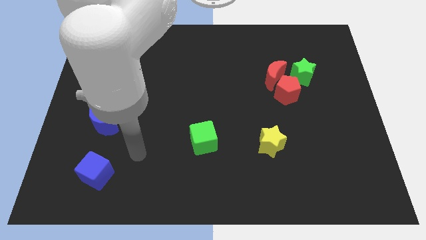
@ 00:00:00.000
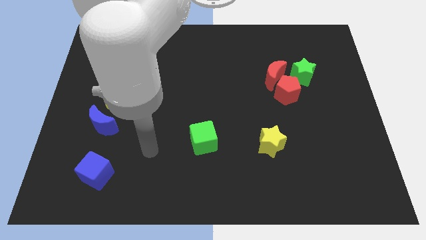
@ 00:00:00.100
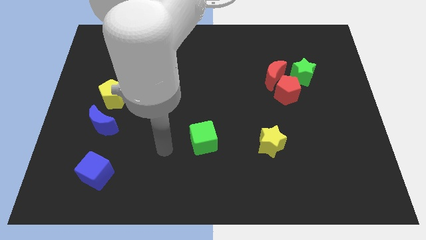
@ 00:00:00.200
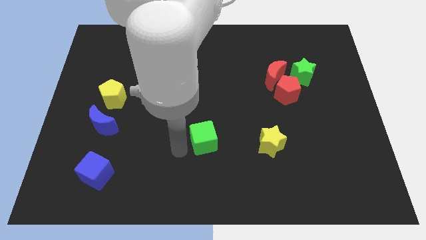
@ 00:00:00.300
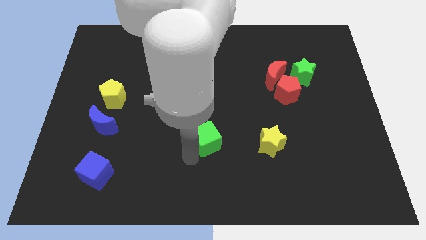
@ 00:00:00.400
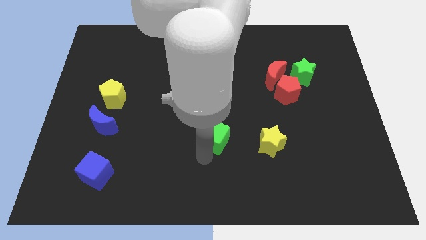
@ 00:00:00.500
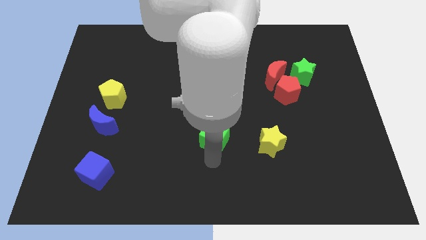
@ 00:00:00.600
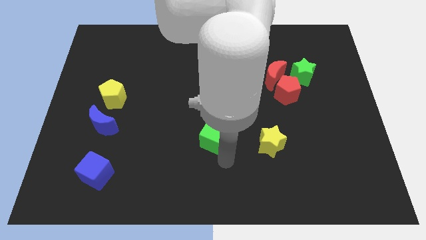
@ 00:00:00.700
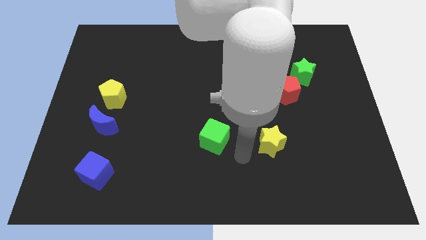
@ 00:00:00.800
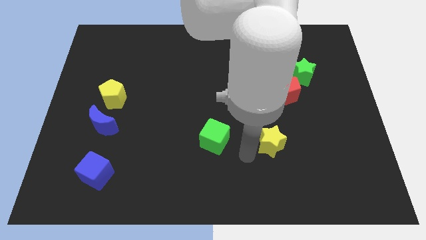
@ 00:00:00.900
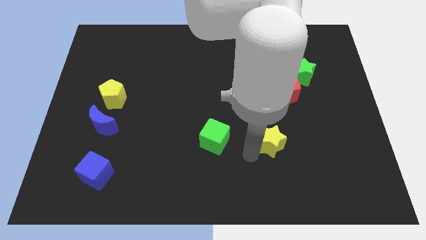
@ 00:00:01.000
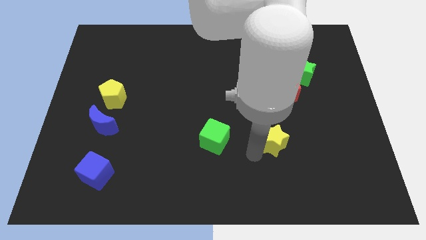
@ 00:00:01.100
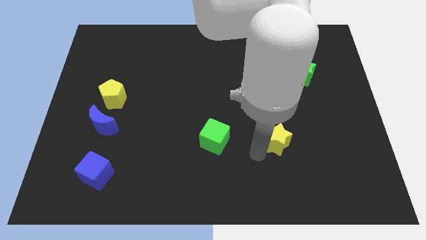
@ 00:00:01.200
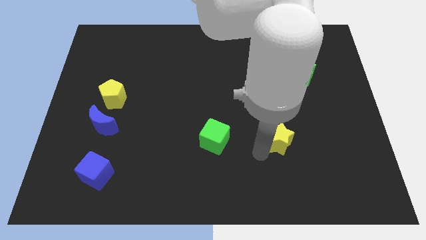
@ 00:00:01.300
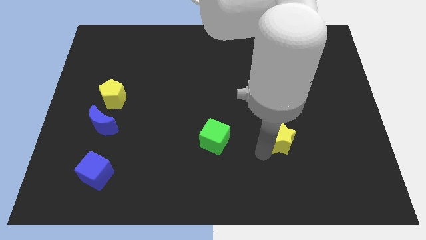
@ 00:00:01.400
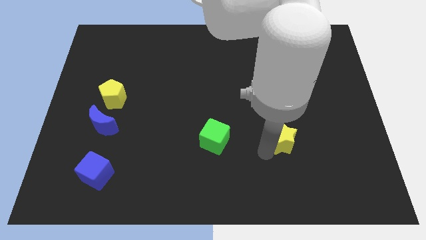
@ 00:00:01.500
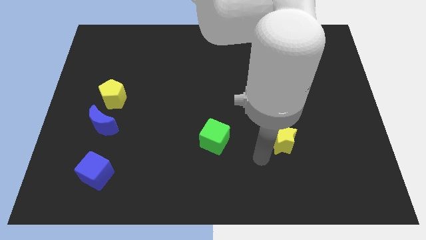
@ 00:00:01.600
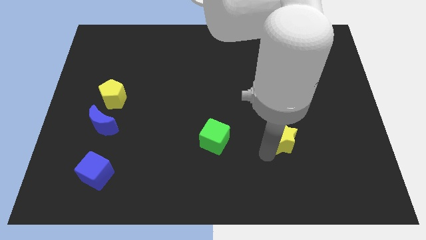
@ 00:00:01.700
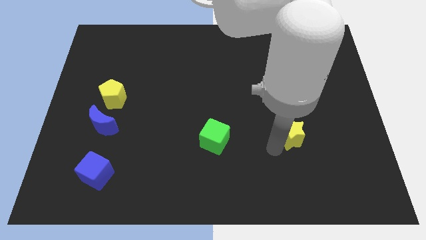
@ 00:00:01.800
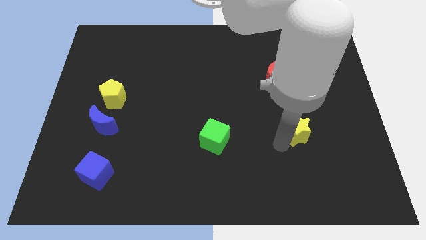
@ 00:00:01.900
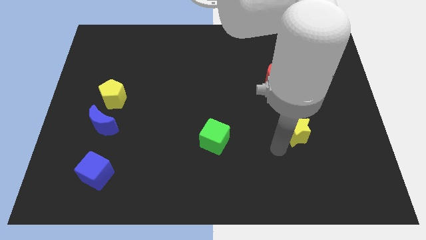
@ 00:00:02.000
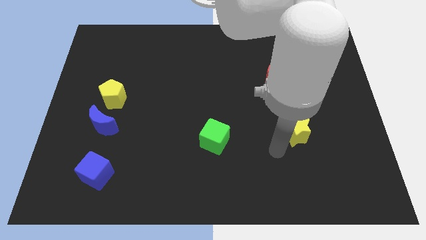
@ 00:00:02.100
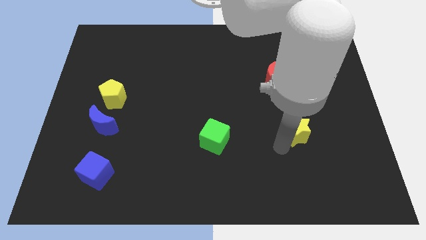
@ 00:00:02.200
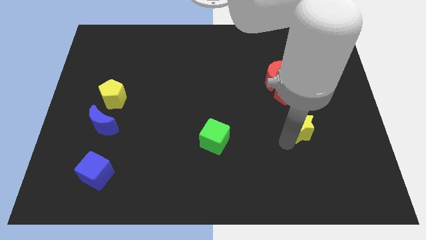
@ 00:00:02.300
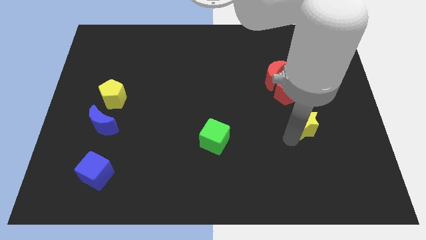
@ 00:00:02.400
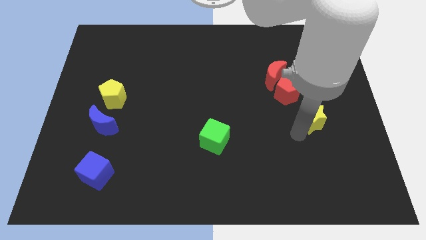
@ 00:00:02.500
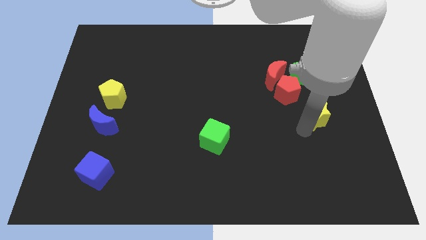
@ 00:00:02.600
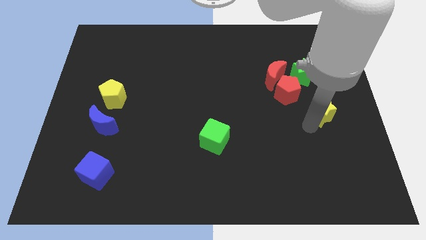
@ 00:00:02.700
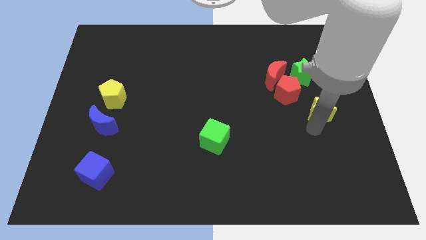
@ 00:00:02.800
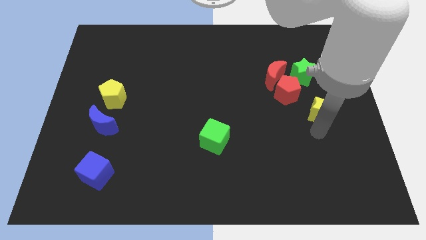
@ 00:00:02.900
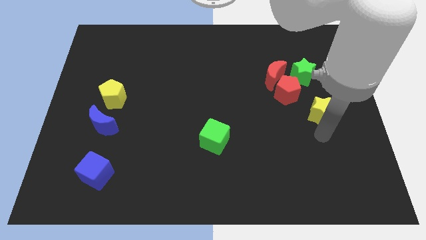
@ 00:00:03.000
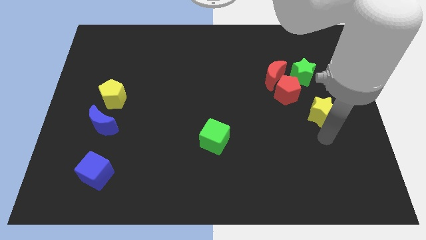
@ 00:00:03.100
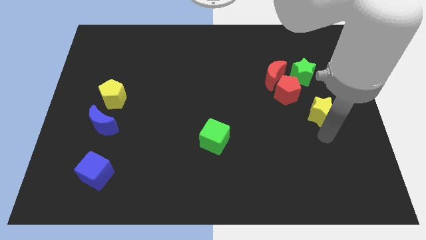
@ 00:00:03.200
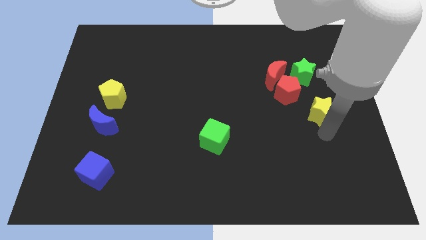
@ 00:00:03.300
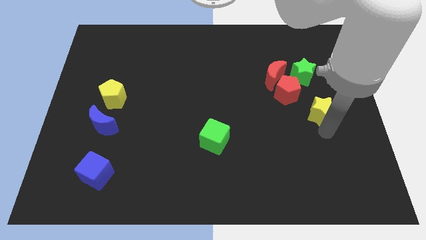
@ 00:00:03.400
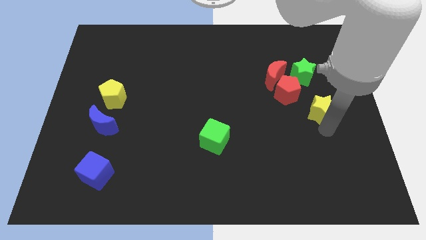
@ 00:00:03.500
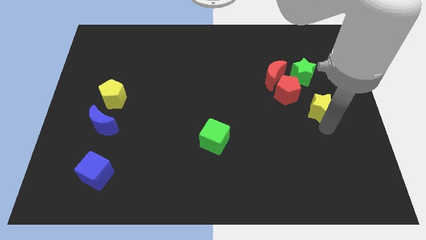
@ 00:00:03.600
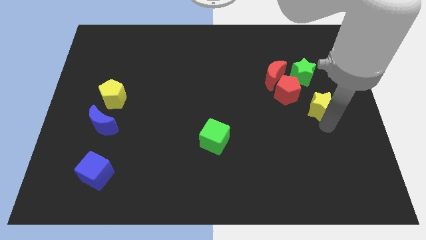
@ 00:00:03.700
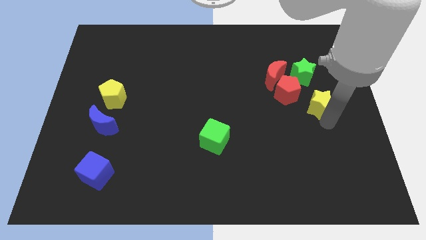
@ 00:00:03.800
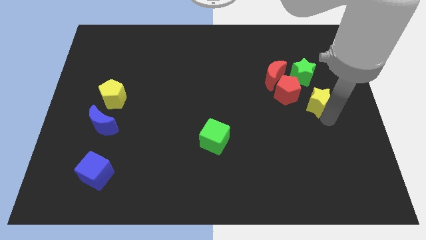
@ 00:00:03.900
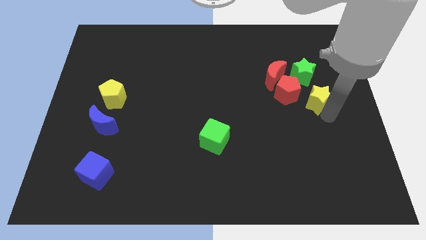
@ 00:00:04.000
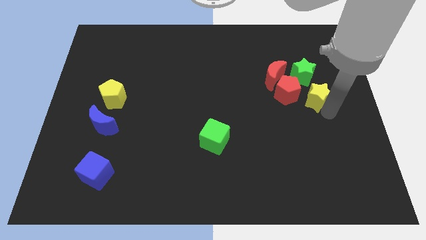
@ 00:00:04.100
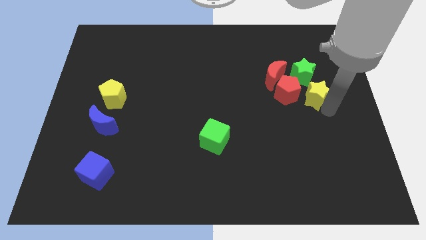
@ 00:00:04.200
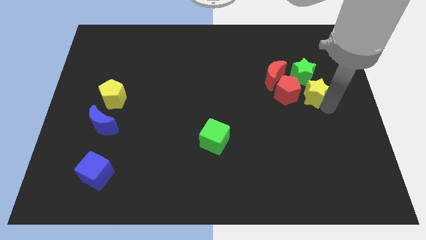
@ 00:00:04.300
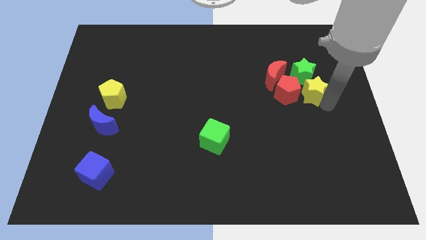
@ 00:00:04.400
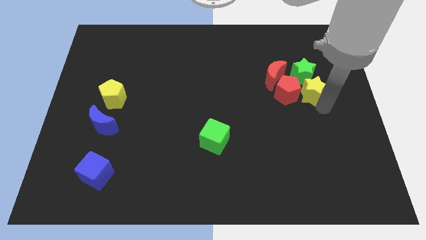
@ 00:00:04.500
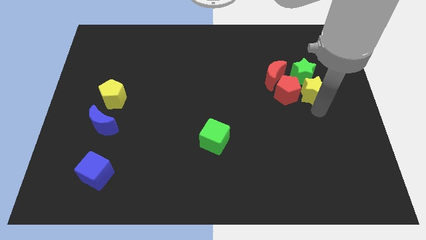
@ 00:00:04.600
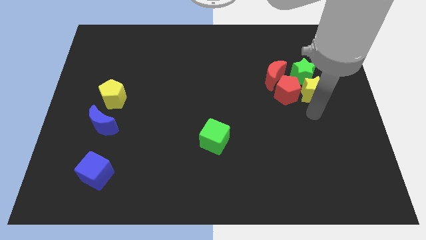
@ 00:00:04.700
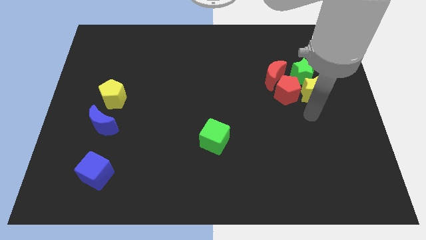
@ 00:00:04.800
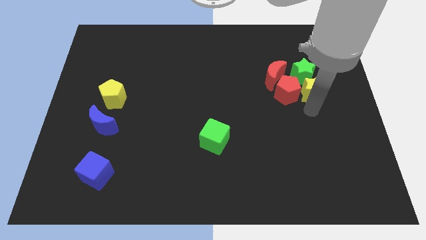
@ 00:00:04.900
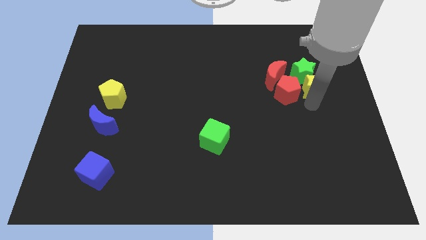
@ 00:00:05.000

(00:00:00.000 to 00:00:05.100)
move the yellow star right of the red moon

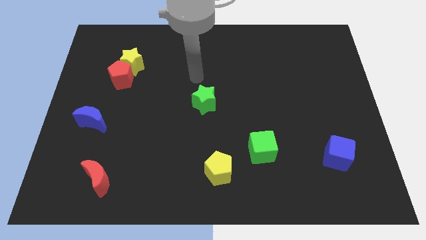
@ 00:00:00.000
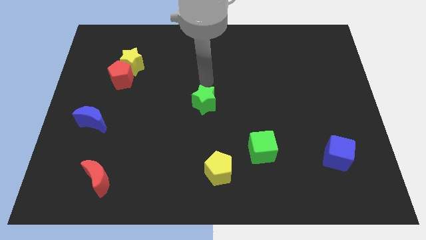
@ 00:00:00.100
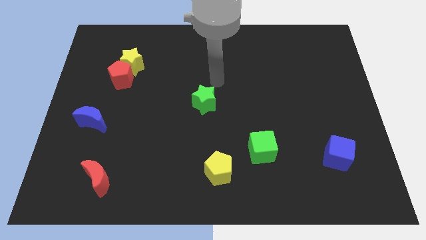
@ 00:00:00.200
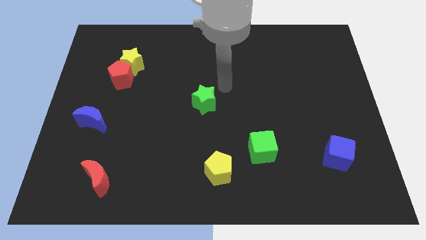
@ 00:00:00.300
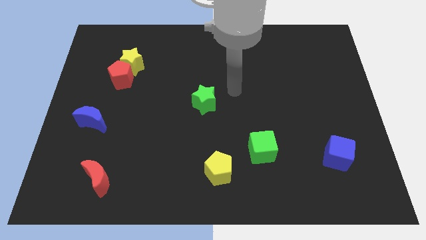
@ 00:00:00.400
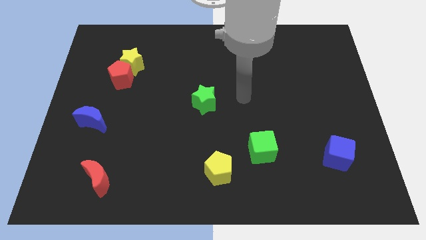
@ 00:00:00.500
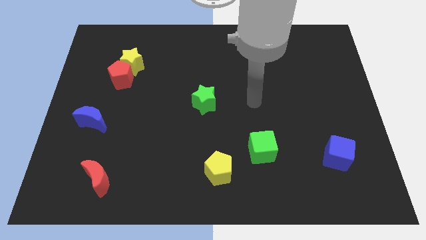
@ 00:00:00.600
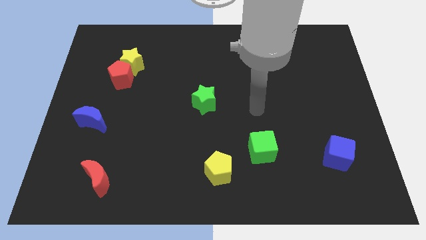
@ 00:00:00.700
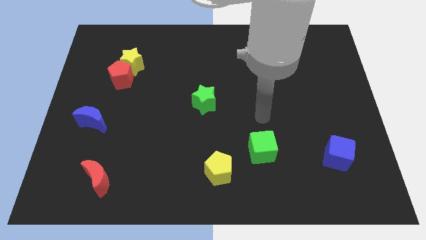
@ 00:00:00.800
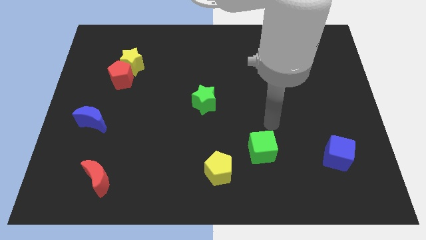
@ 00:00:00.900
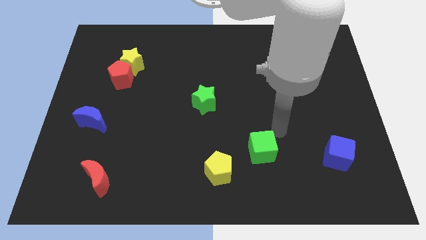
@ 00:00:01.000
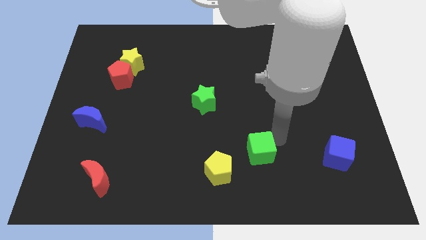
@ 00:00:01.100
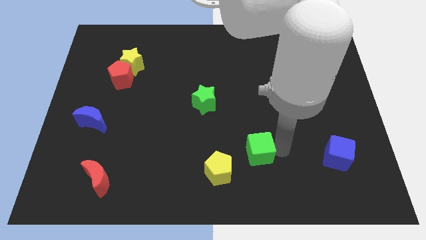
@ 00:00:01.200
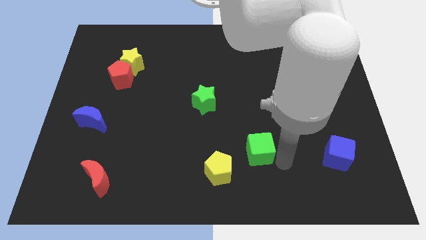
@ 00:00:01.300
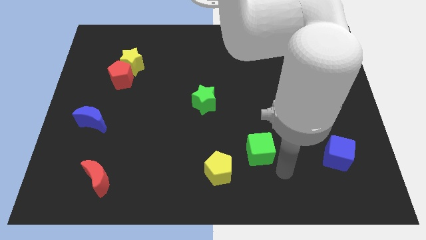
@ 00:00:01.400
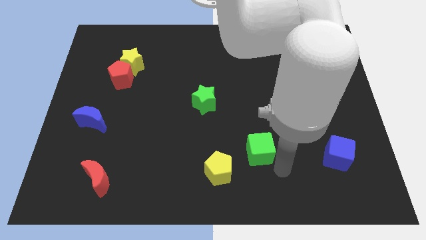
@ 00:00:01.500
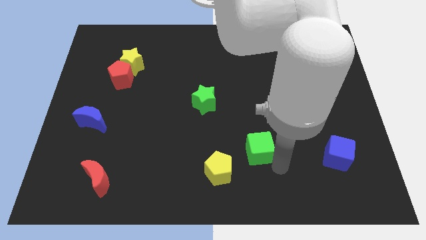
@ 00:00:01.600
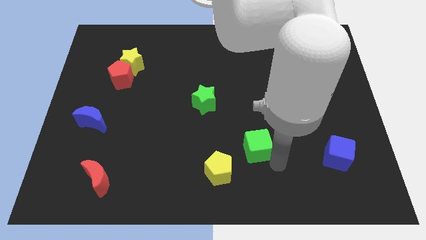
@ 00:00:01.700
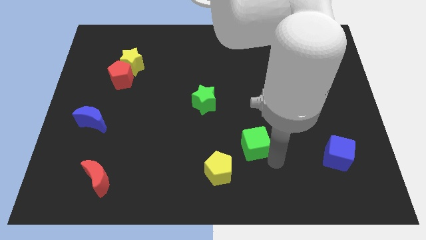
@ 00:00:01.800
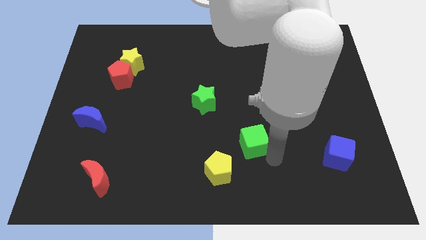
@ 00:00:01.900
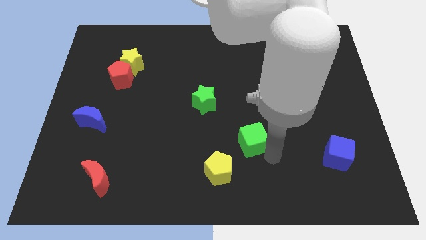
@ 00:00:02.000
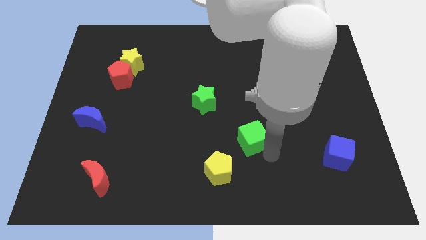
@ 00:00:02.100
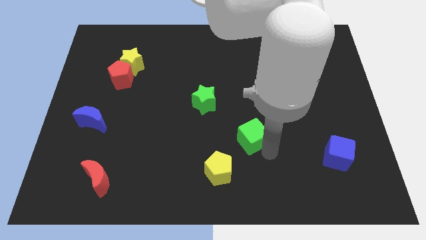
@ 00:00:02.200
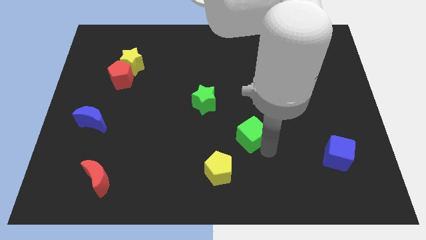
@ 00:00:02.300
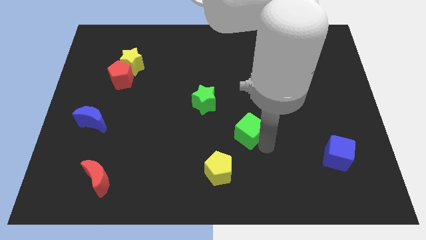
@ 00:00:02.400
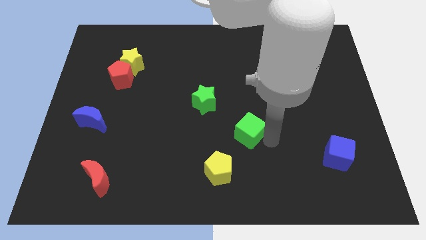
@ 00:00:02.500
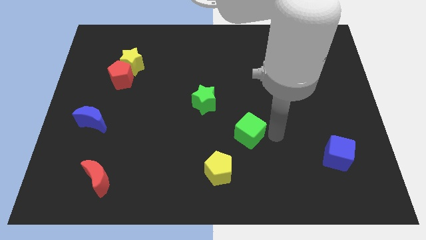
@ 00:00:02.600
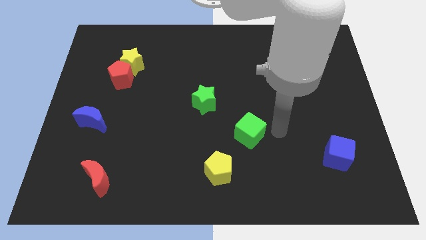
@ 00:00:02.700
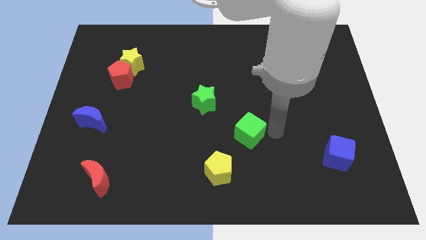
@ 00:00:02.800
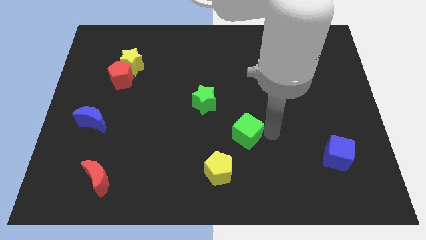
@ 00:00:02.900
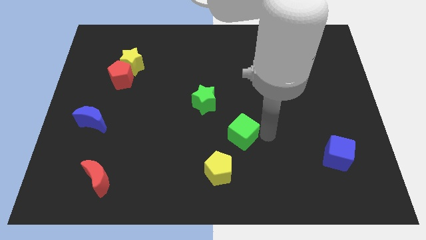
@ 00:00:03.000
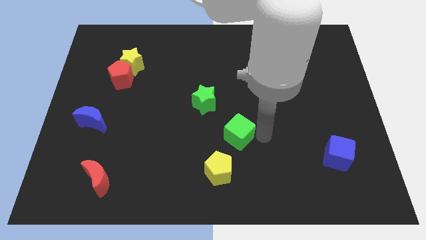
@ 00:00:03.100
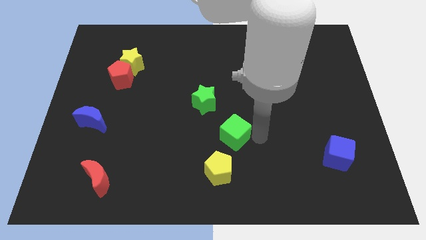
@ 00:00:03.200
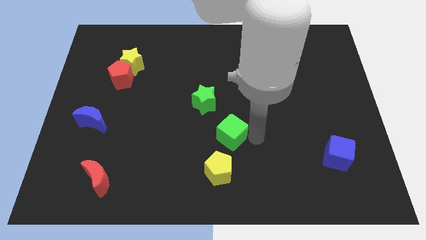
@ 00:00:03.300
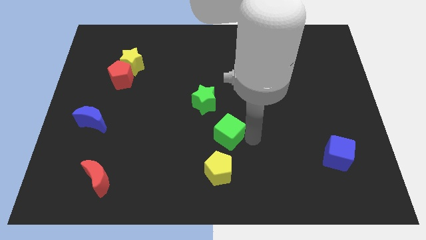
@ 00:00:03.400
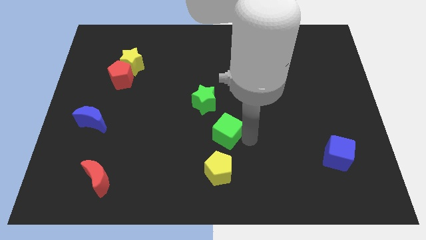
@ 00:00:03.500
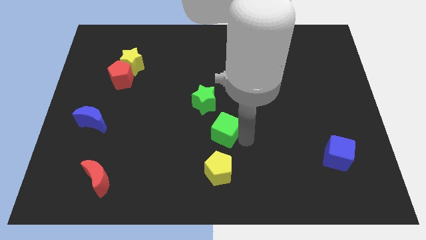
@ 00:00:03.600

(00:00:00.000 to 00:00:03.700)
put the green cube to the bottom side of the green star
